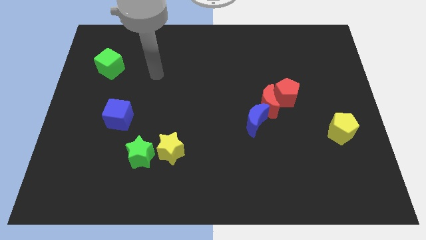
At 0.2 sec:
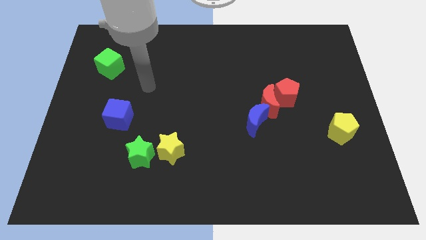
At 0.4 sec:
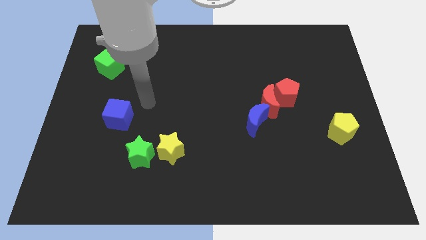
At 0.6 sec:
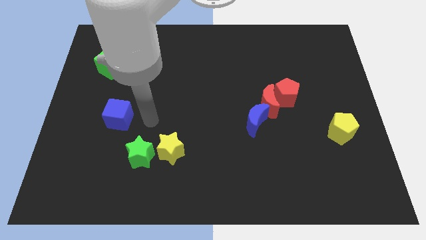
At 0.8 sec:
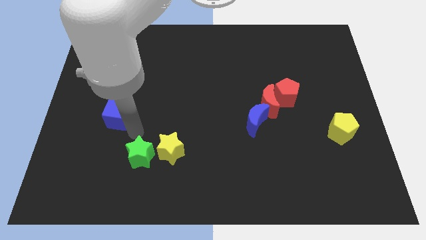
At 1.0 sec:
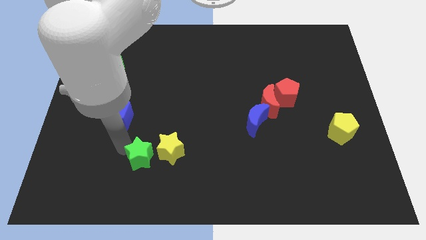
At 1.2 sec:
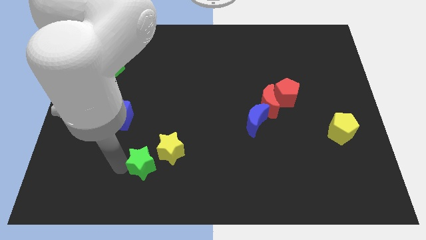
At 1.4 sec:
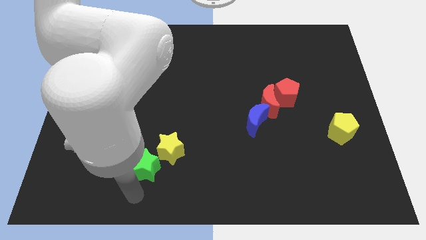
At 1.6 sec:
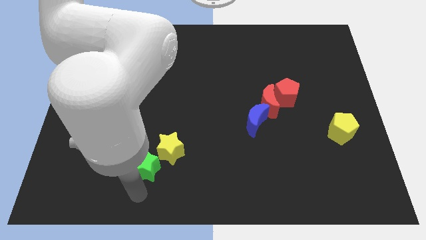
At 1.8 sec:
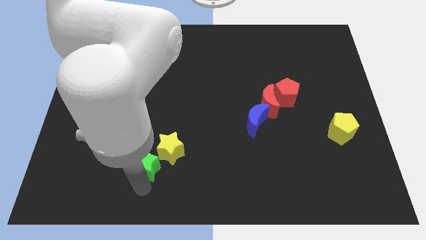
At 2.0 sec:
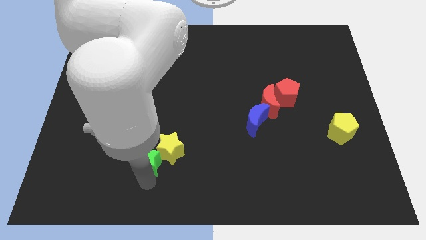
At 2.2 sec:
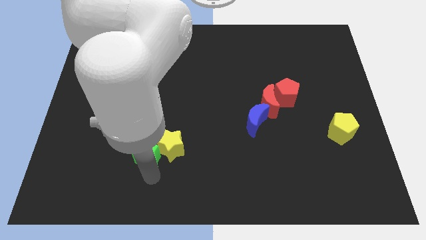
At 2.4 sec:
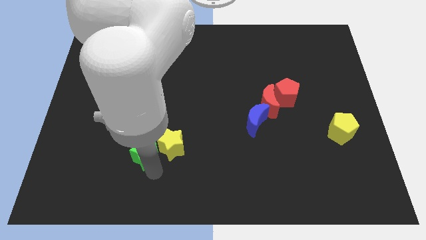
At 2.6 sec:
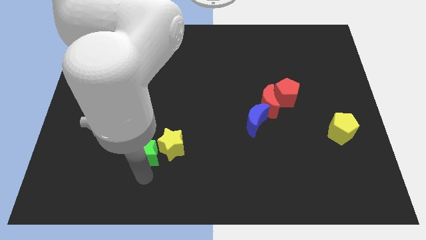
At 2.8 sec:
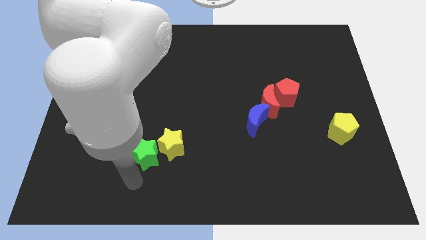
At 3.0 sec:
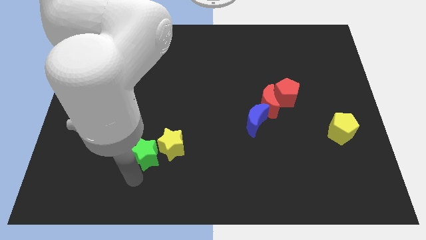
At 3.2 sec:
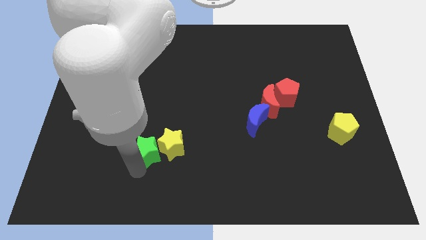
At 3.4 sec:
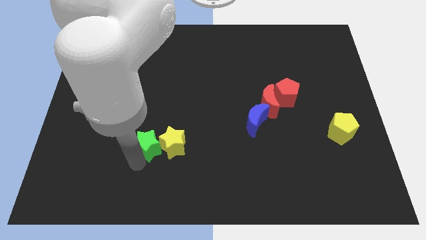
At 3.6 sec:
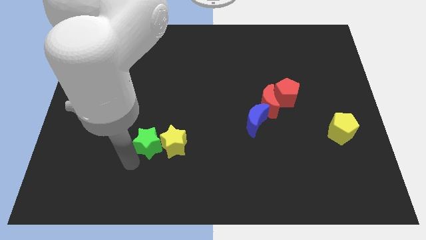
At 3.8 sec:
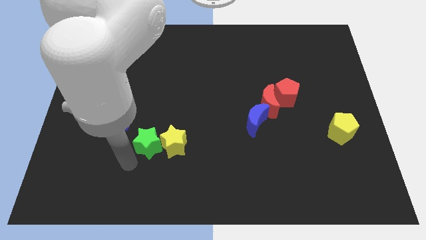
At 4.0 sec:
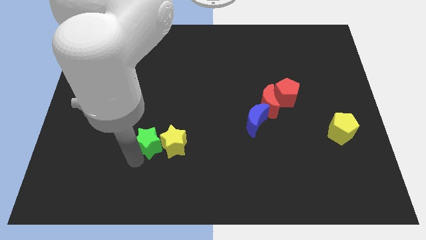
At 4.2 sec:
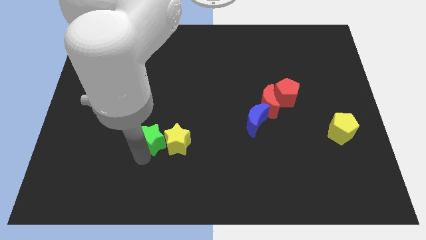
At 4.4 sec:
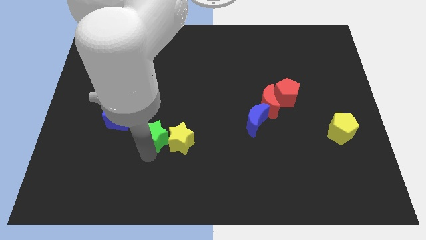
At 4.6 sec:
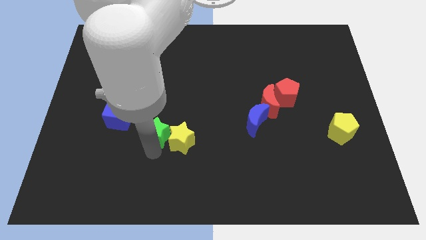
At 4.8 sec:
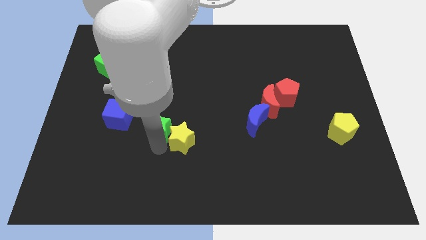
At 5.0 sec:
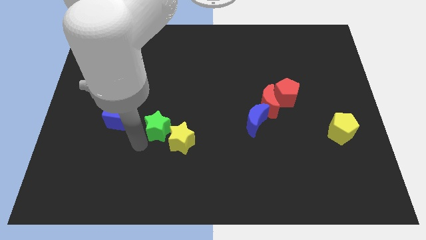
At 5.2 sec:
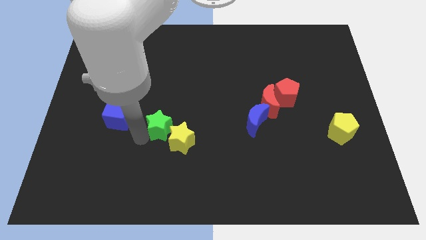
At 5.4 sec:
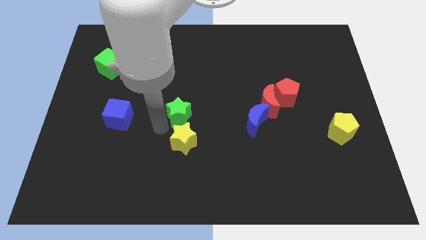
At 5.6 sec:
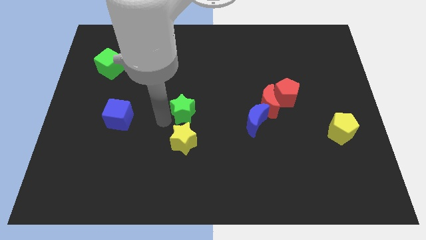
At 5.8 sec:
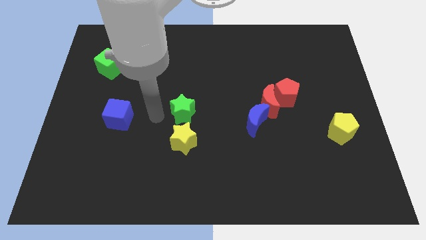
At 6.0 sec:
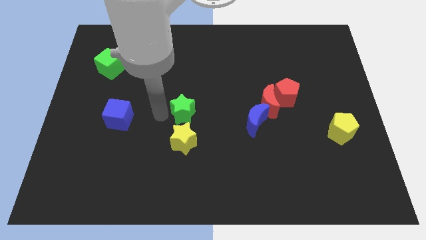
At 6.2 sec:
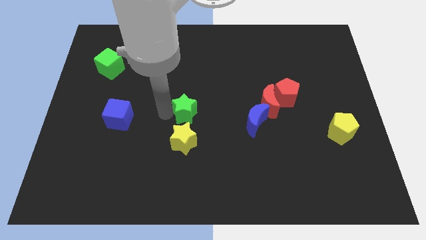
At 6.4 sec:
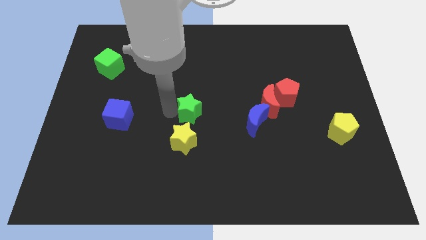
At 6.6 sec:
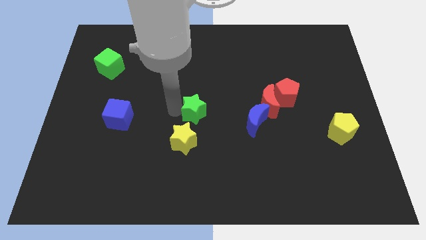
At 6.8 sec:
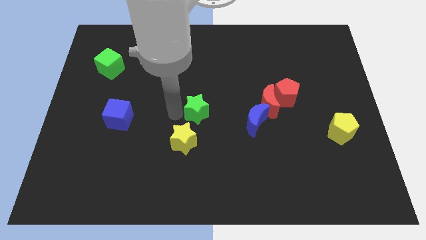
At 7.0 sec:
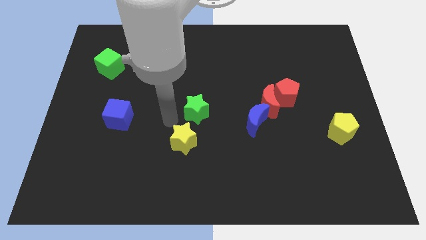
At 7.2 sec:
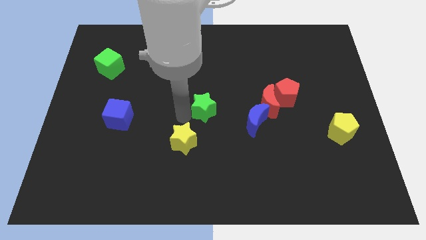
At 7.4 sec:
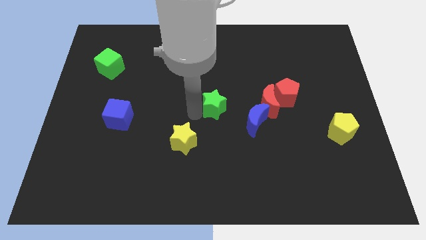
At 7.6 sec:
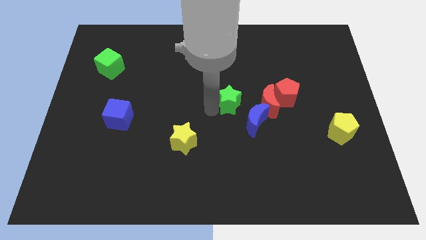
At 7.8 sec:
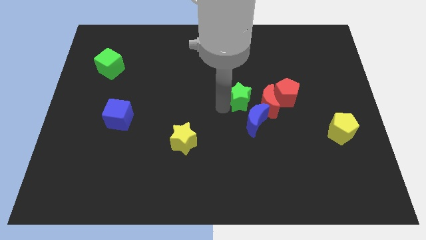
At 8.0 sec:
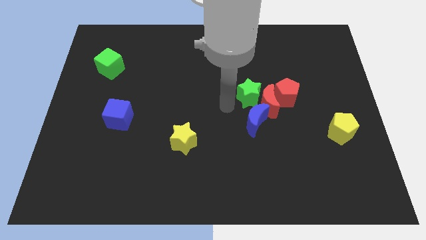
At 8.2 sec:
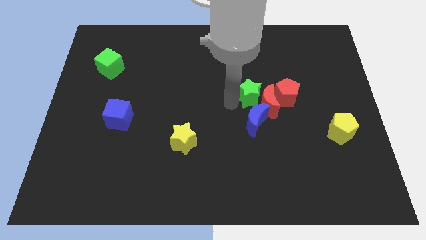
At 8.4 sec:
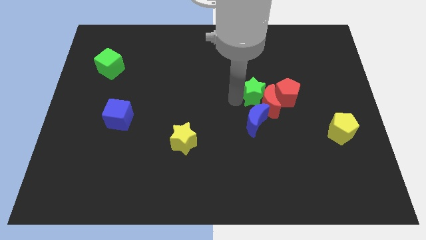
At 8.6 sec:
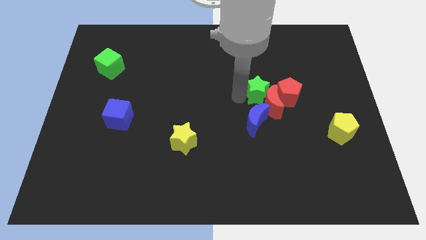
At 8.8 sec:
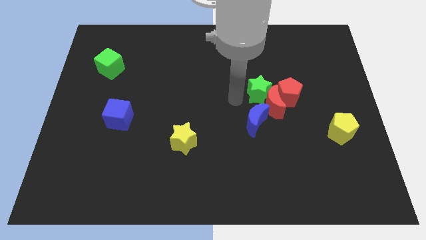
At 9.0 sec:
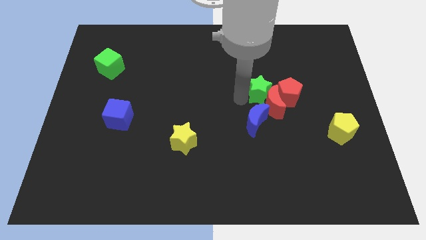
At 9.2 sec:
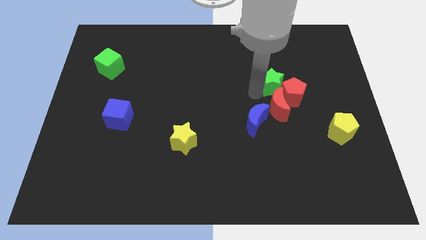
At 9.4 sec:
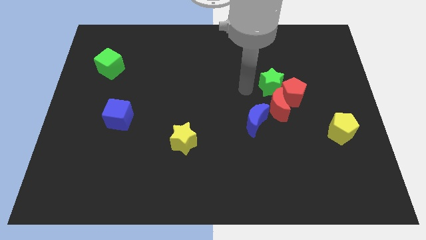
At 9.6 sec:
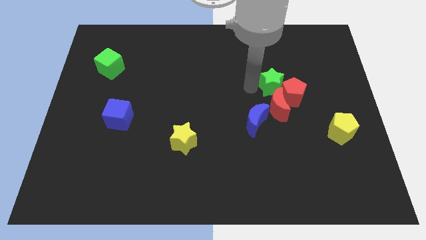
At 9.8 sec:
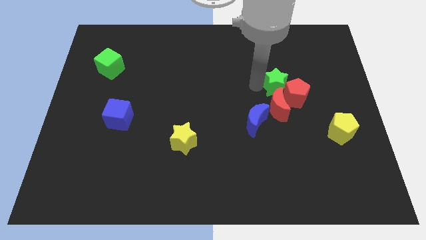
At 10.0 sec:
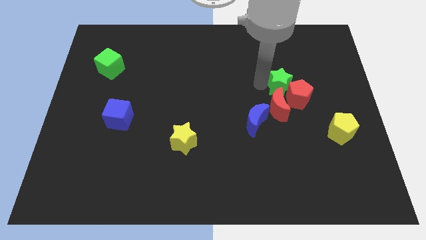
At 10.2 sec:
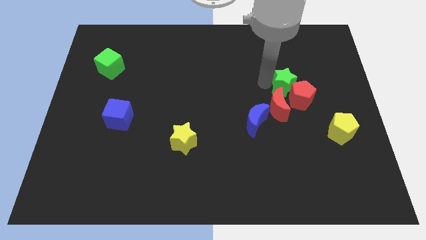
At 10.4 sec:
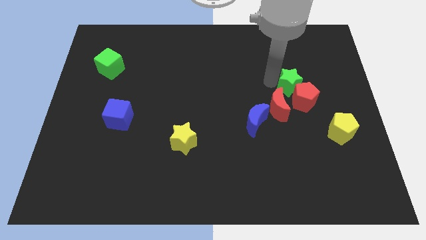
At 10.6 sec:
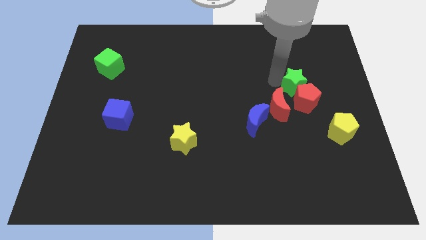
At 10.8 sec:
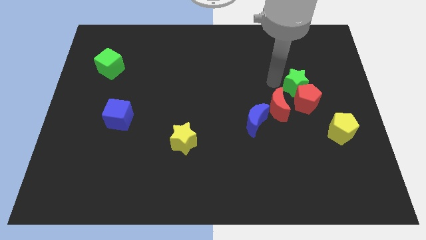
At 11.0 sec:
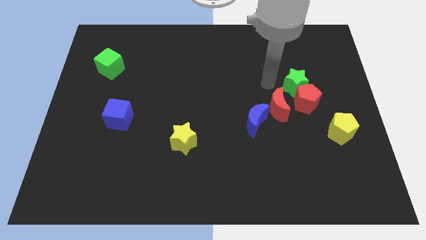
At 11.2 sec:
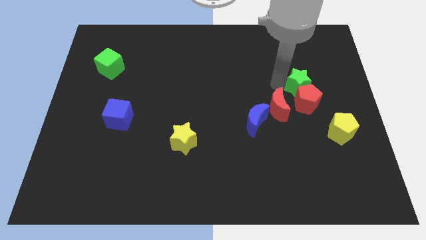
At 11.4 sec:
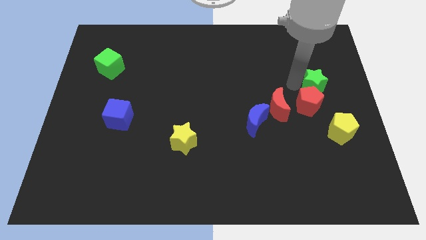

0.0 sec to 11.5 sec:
move the green star to the top side of the yellow pentagon
